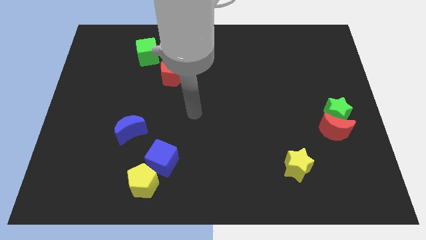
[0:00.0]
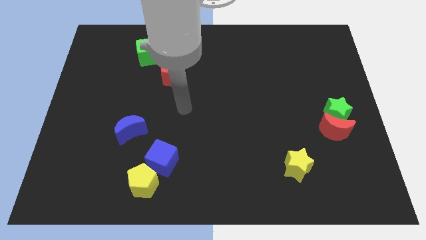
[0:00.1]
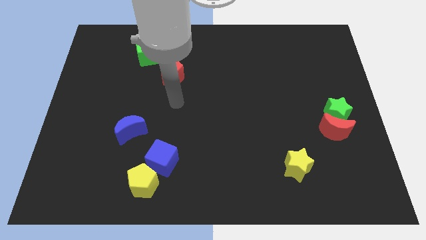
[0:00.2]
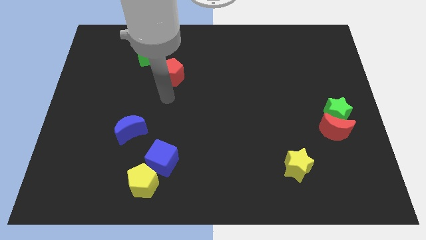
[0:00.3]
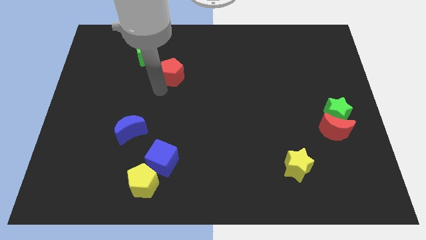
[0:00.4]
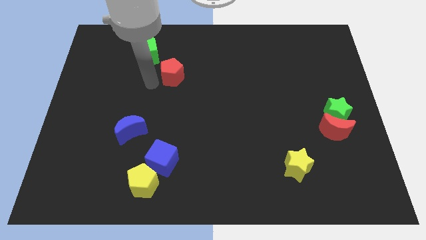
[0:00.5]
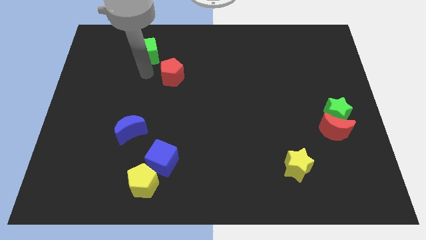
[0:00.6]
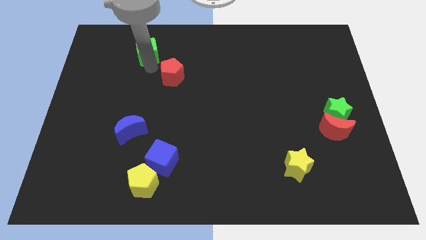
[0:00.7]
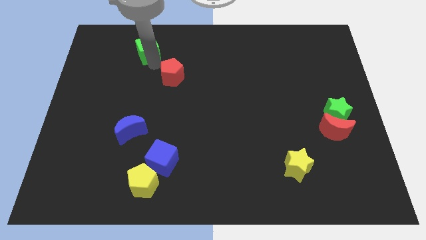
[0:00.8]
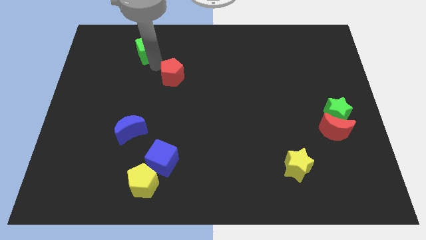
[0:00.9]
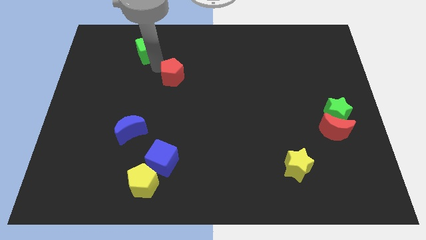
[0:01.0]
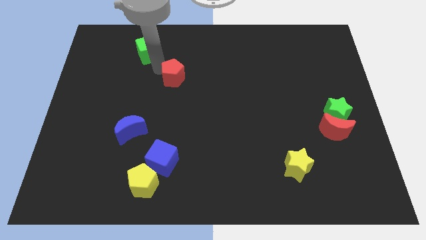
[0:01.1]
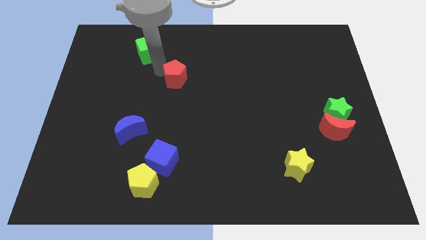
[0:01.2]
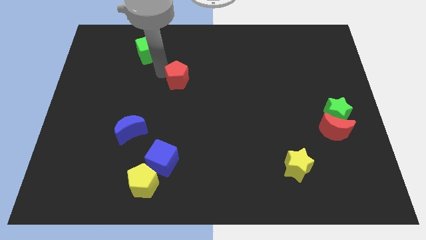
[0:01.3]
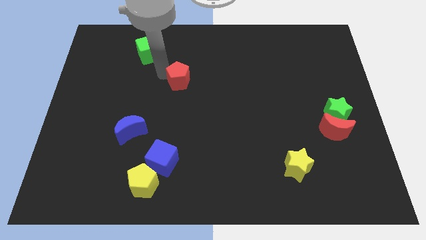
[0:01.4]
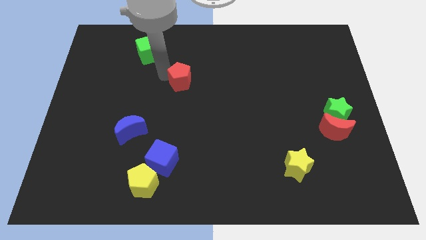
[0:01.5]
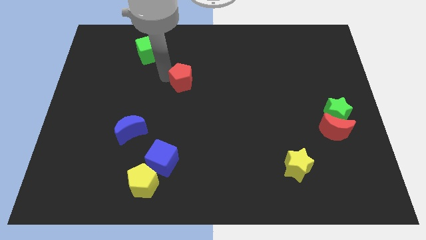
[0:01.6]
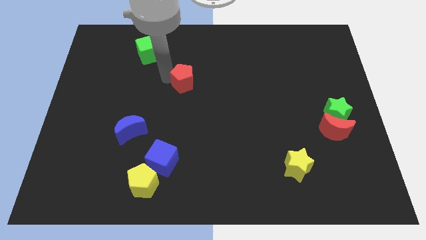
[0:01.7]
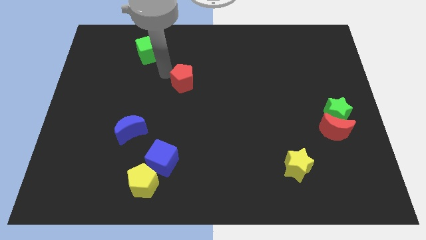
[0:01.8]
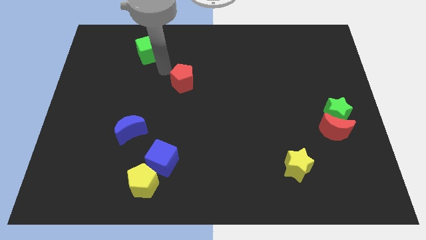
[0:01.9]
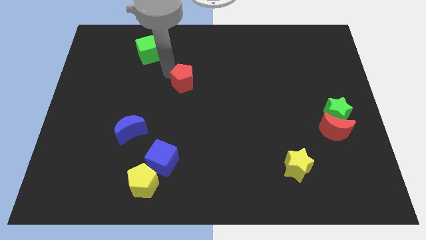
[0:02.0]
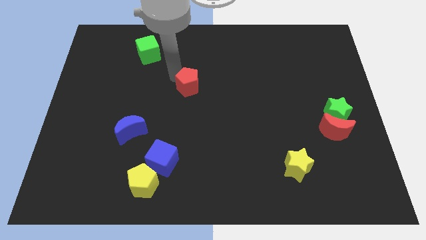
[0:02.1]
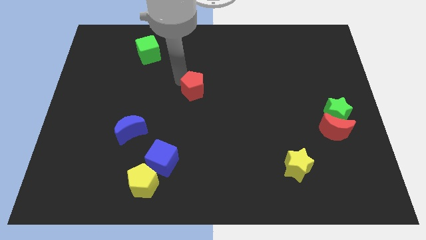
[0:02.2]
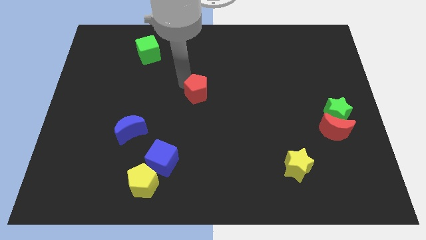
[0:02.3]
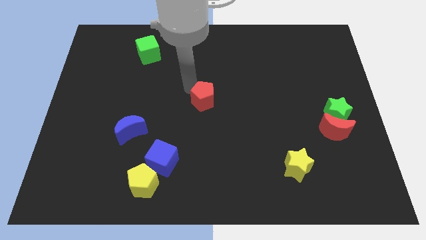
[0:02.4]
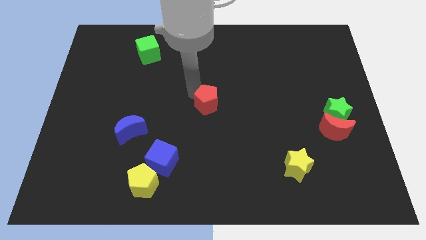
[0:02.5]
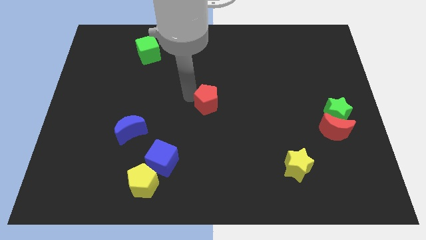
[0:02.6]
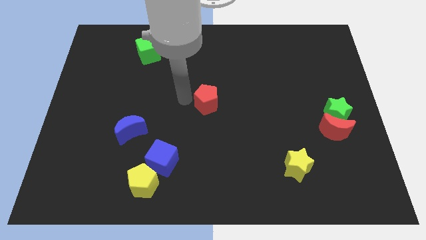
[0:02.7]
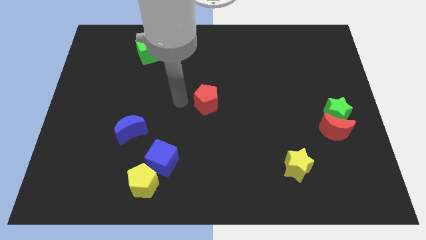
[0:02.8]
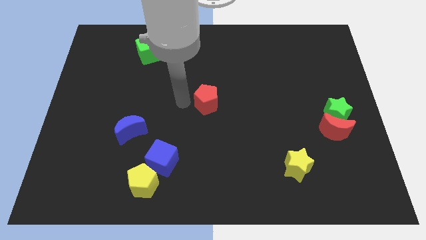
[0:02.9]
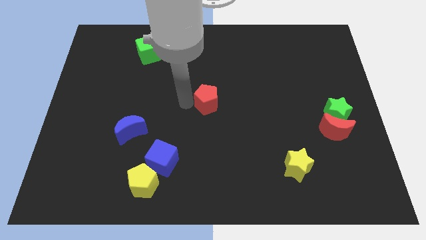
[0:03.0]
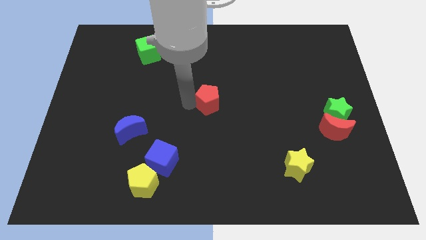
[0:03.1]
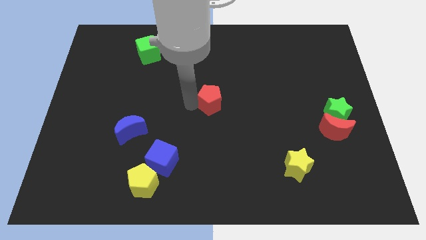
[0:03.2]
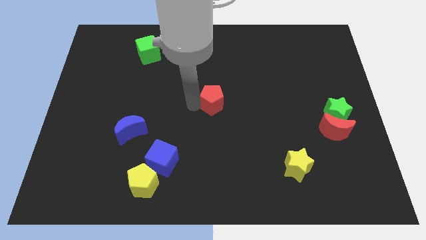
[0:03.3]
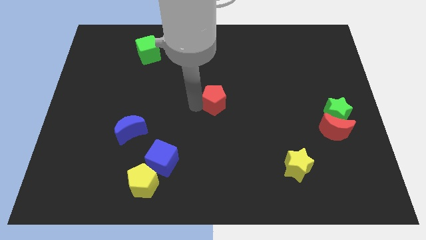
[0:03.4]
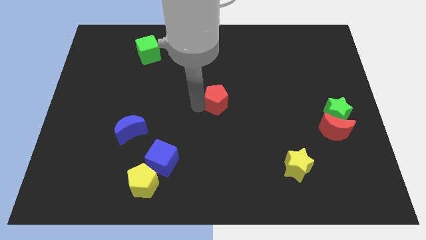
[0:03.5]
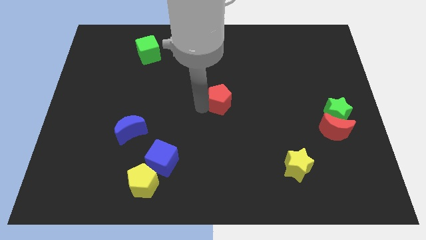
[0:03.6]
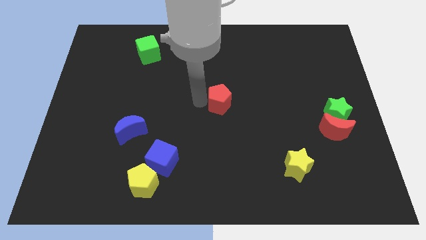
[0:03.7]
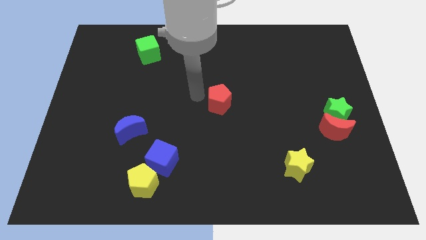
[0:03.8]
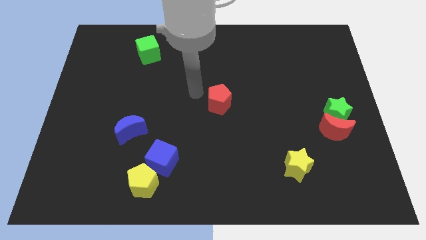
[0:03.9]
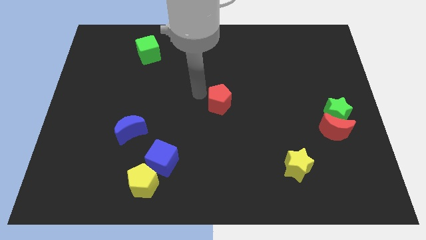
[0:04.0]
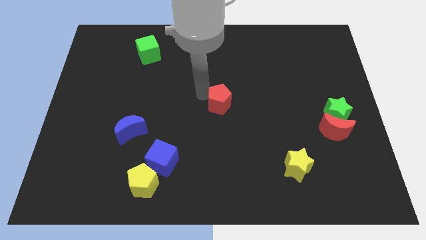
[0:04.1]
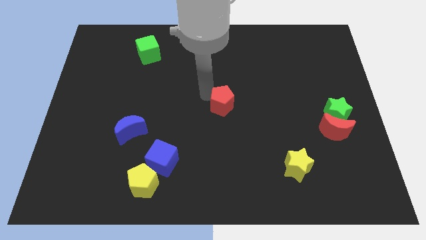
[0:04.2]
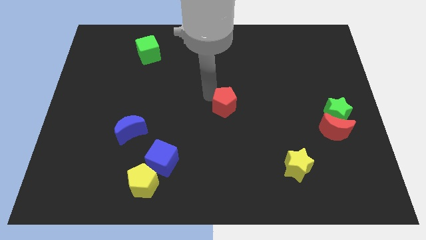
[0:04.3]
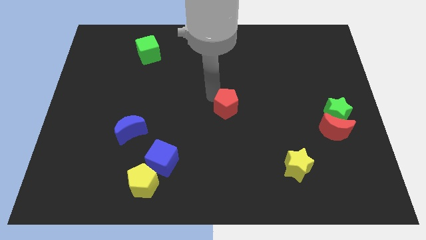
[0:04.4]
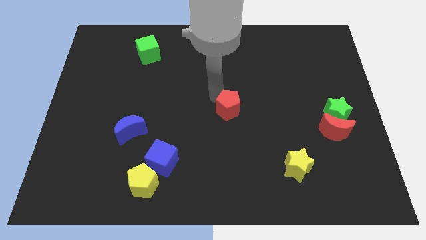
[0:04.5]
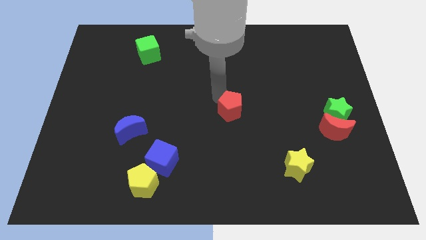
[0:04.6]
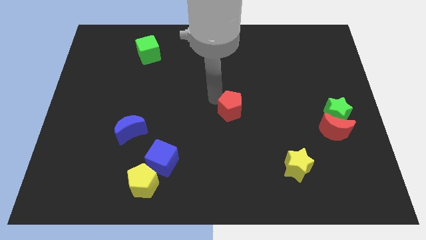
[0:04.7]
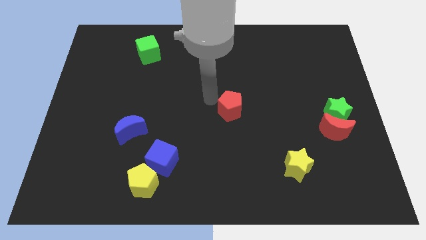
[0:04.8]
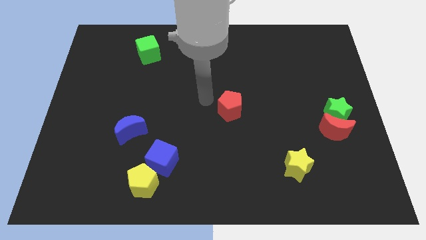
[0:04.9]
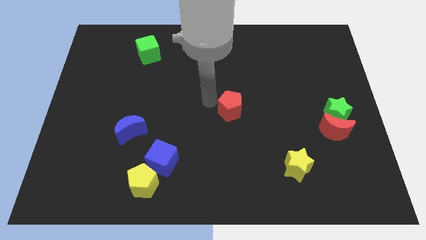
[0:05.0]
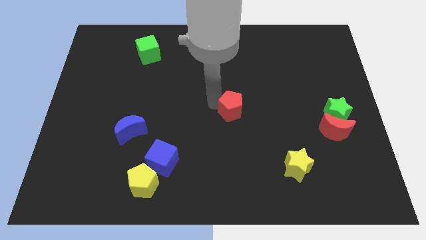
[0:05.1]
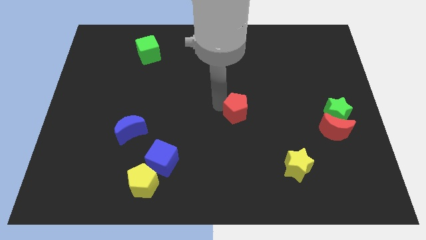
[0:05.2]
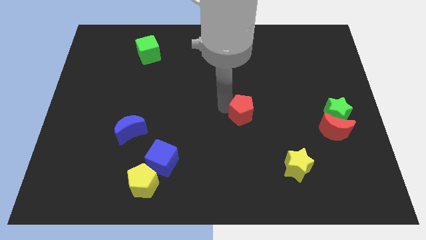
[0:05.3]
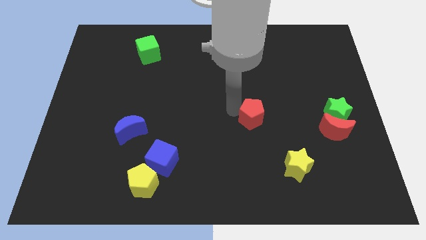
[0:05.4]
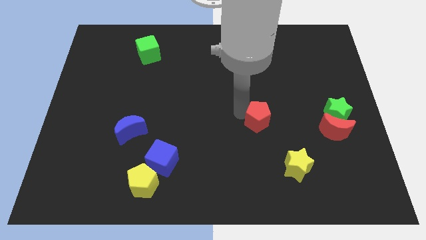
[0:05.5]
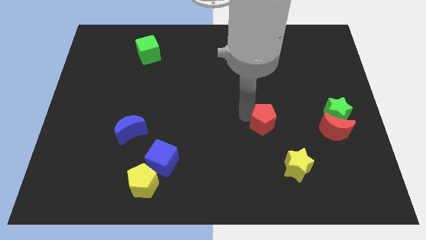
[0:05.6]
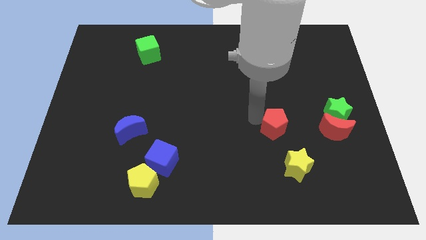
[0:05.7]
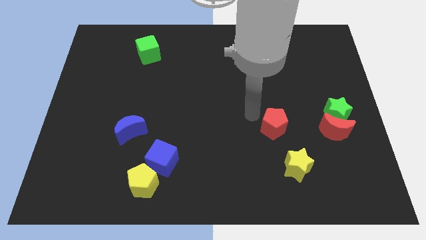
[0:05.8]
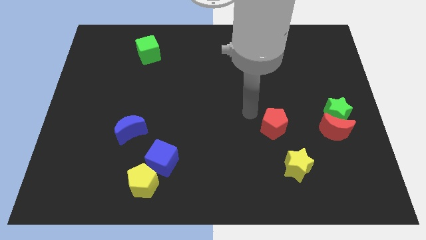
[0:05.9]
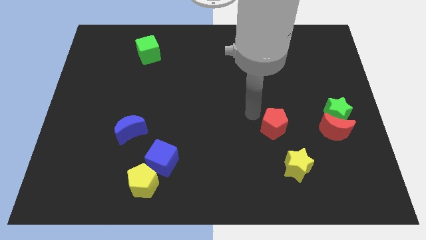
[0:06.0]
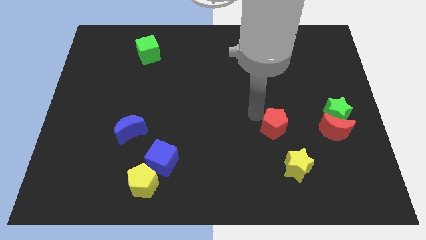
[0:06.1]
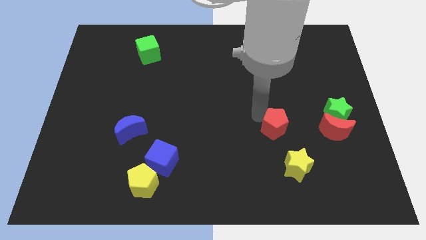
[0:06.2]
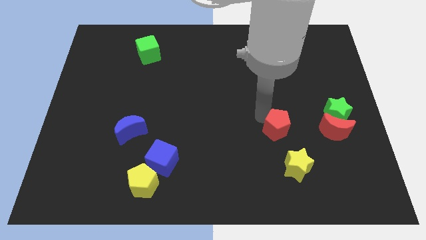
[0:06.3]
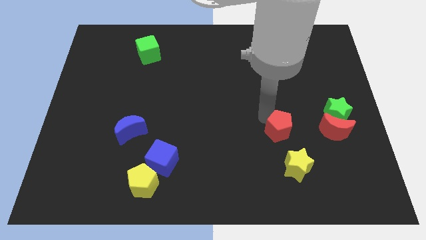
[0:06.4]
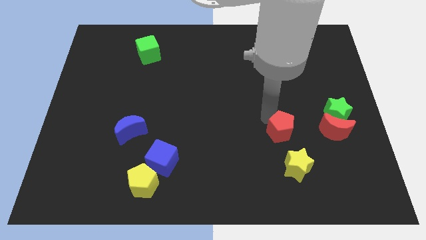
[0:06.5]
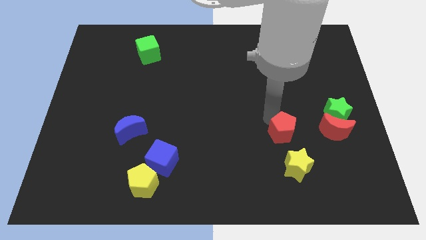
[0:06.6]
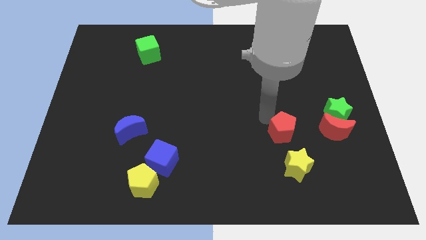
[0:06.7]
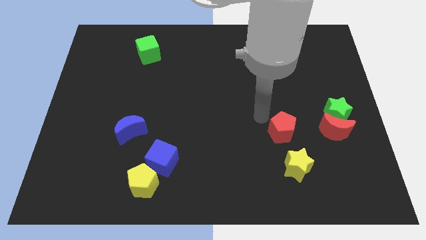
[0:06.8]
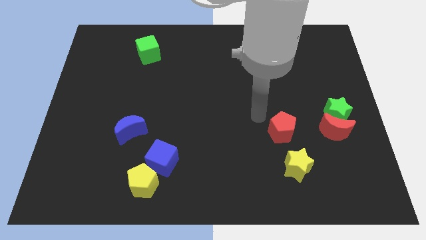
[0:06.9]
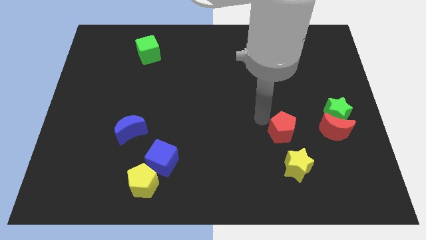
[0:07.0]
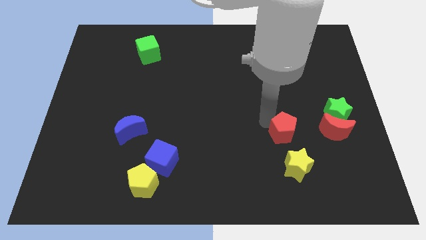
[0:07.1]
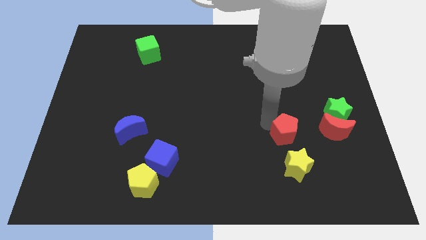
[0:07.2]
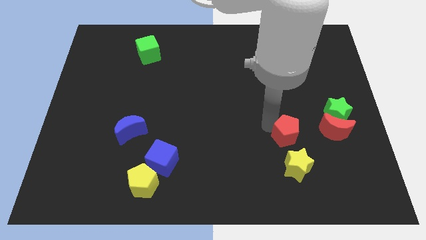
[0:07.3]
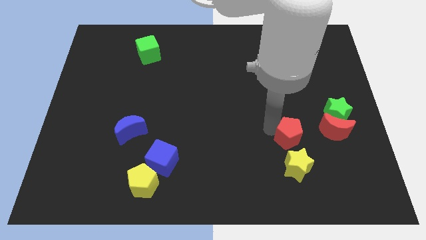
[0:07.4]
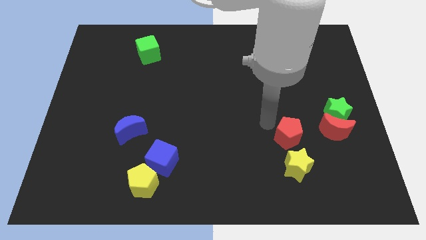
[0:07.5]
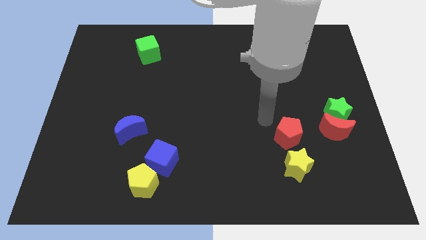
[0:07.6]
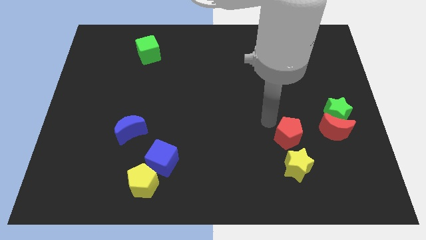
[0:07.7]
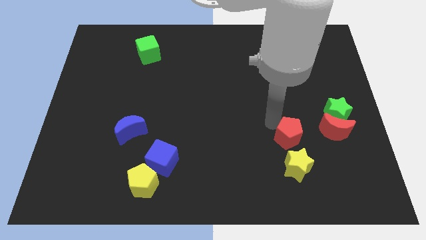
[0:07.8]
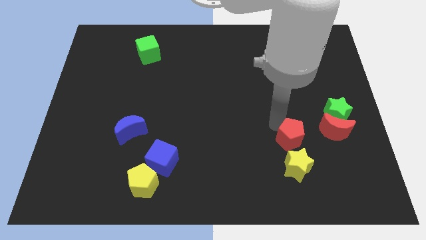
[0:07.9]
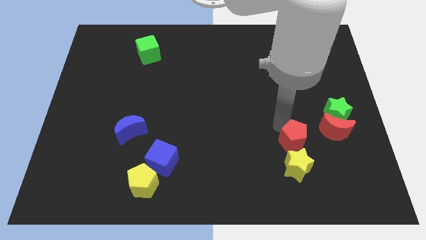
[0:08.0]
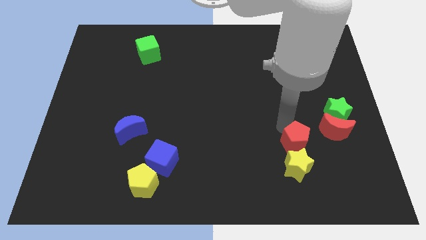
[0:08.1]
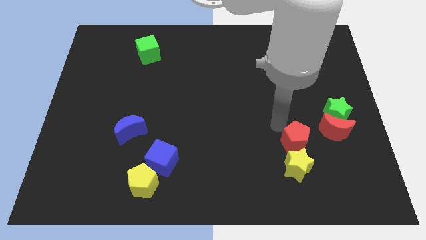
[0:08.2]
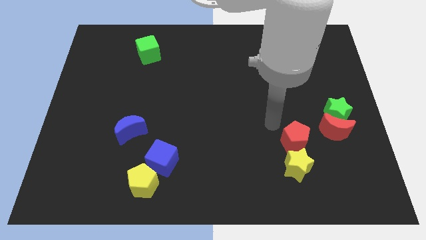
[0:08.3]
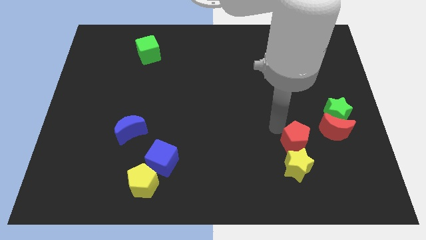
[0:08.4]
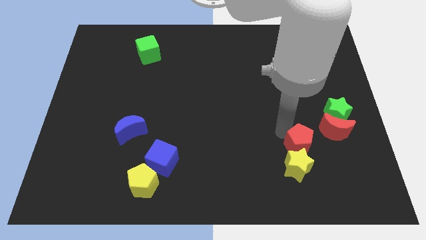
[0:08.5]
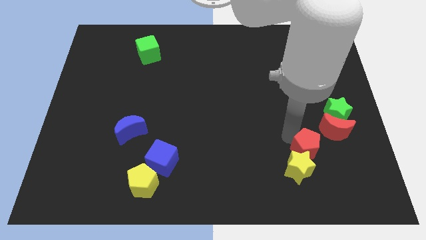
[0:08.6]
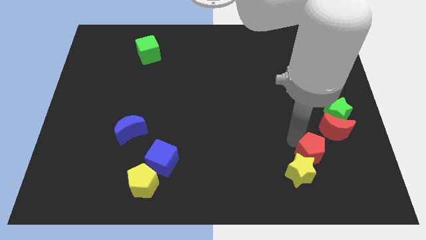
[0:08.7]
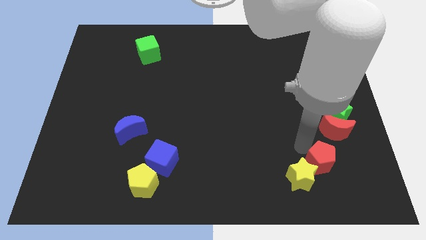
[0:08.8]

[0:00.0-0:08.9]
move the red pentagon to the bottom side of the red moon
